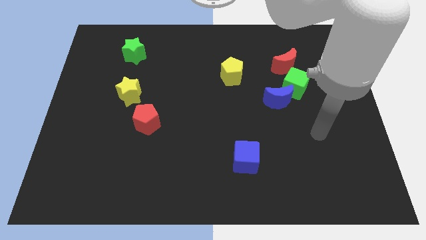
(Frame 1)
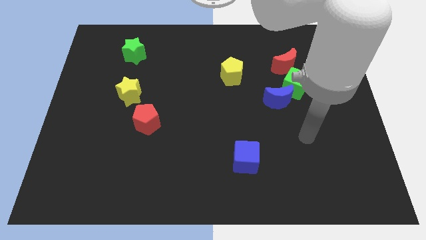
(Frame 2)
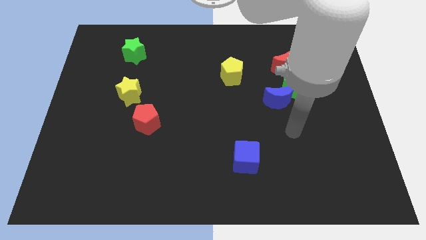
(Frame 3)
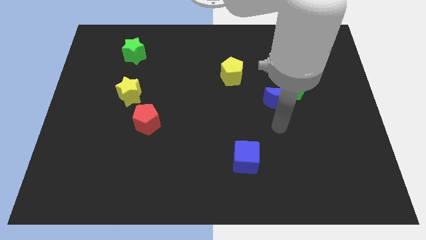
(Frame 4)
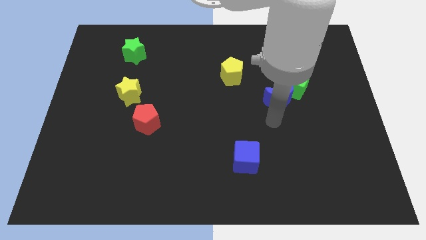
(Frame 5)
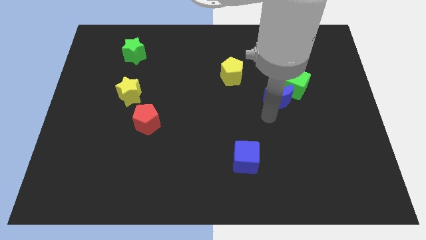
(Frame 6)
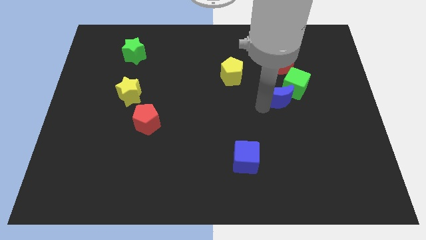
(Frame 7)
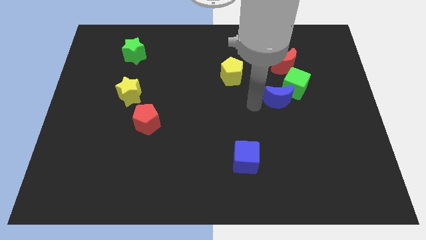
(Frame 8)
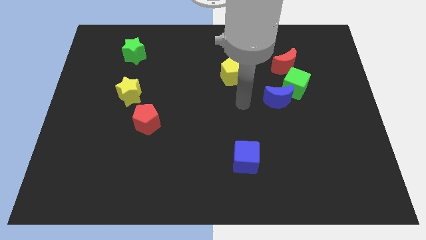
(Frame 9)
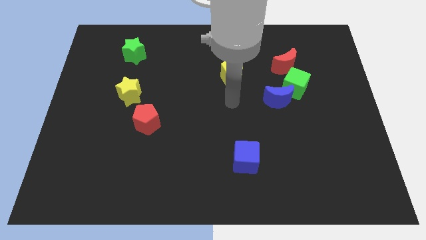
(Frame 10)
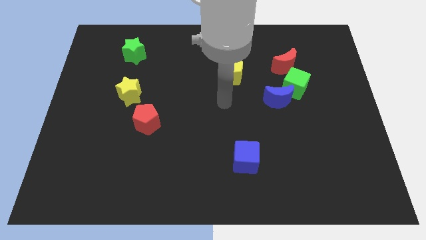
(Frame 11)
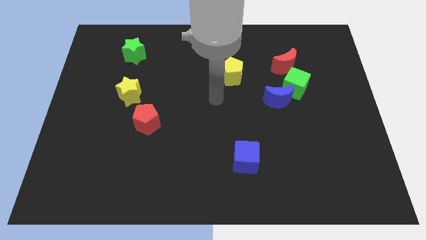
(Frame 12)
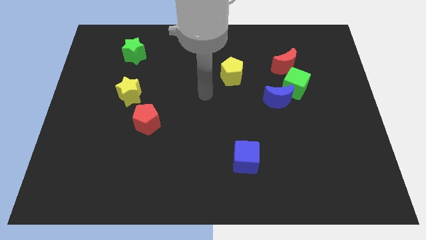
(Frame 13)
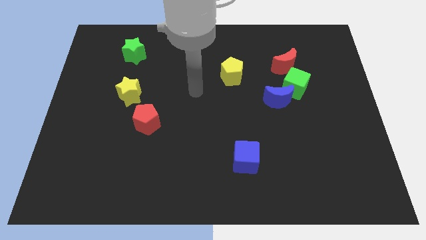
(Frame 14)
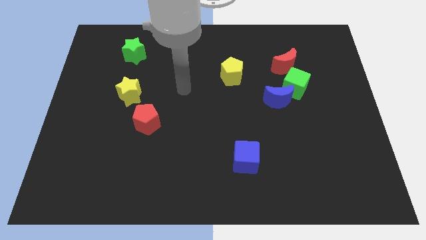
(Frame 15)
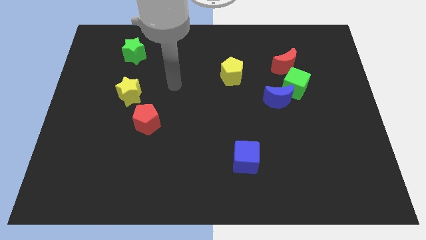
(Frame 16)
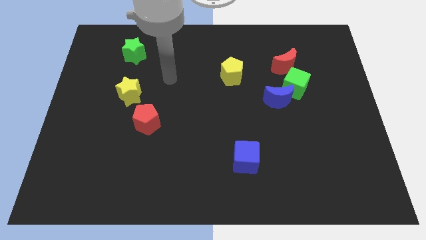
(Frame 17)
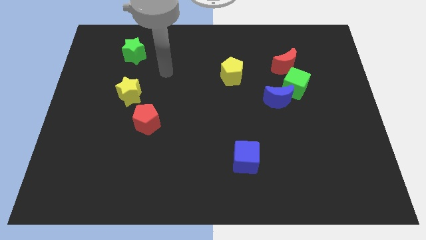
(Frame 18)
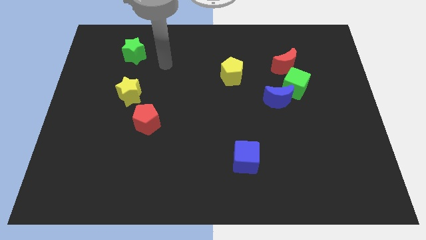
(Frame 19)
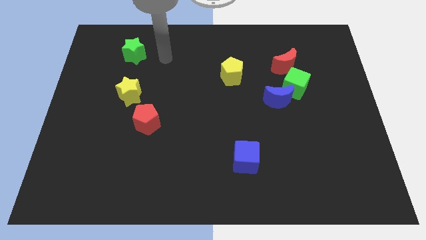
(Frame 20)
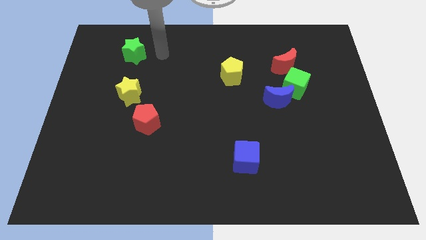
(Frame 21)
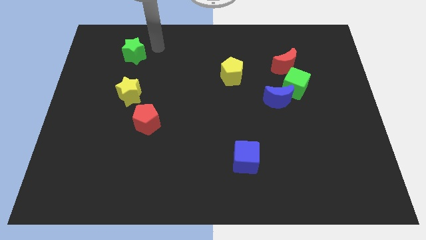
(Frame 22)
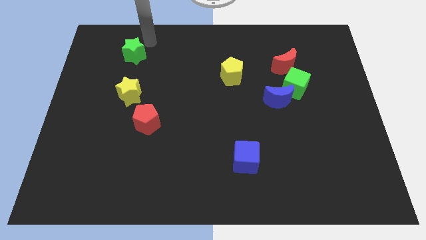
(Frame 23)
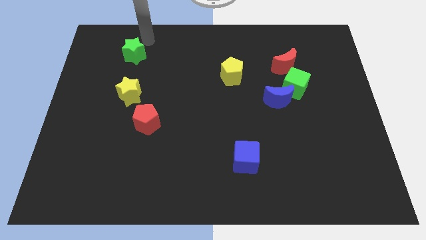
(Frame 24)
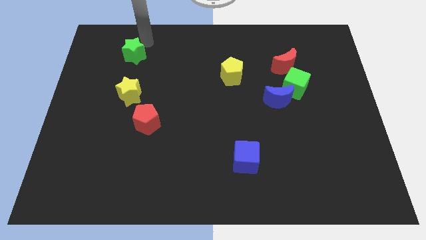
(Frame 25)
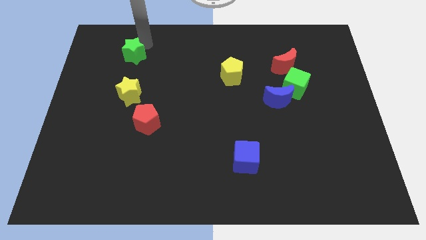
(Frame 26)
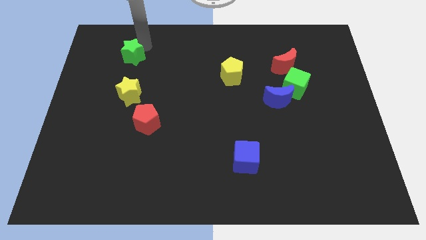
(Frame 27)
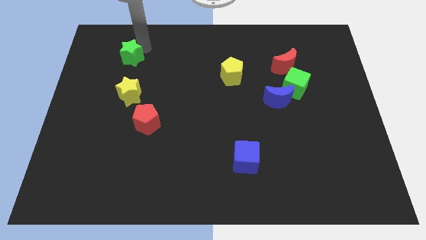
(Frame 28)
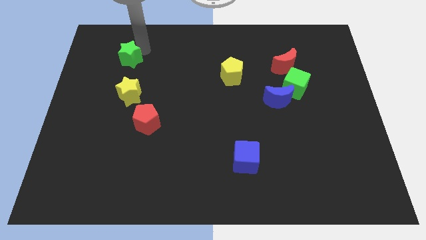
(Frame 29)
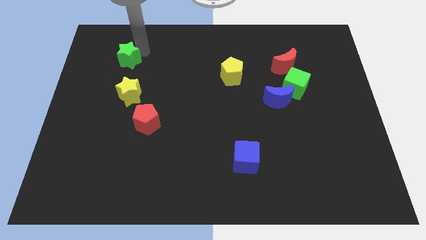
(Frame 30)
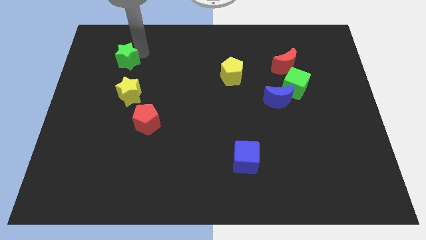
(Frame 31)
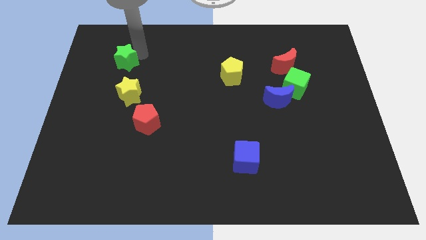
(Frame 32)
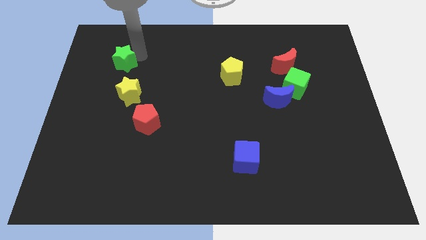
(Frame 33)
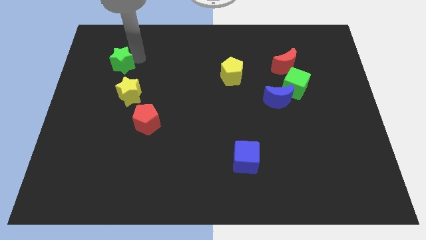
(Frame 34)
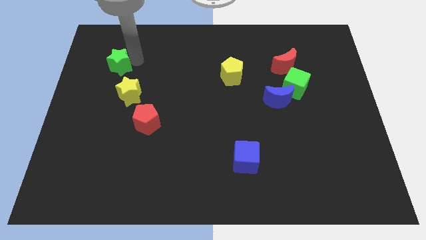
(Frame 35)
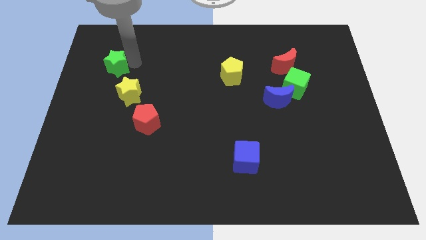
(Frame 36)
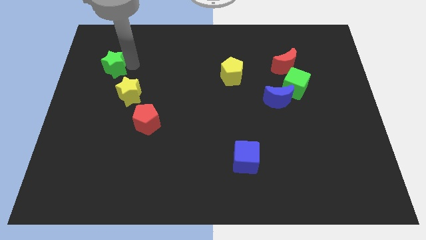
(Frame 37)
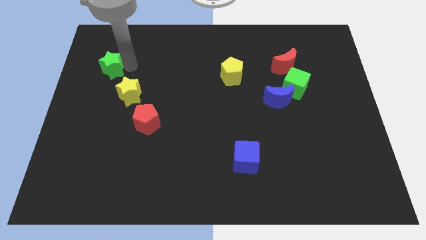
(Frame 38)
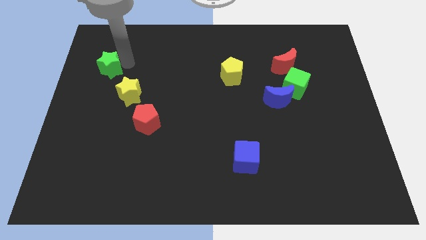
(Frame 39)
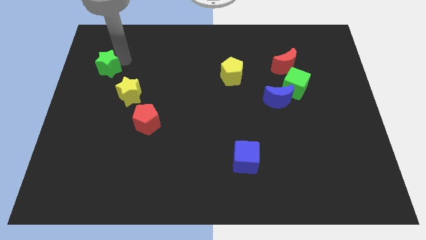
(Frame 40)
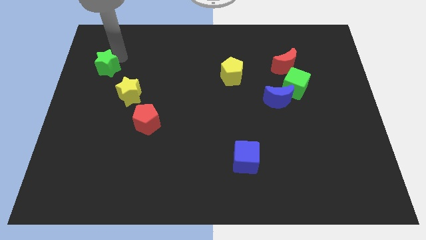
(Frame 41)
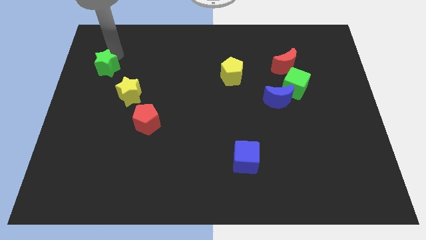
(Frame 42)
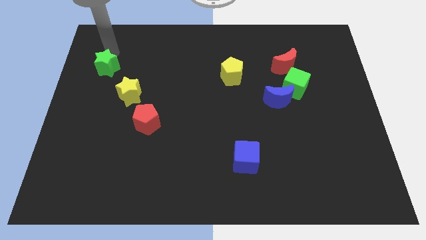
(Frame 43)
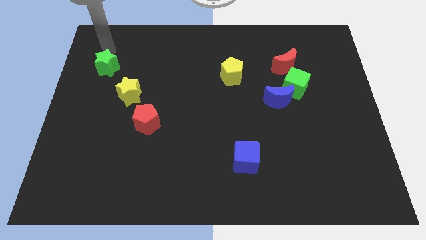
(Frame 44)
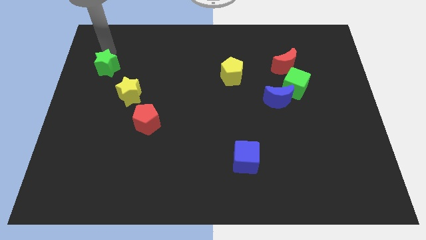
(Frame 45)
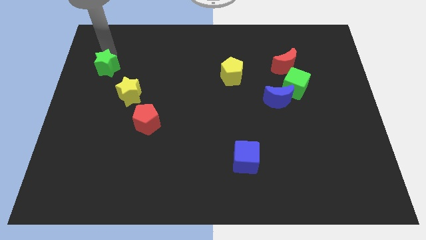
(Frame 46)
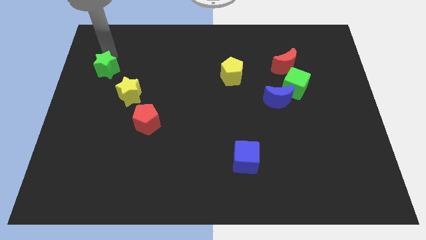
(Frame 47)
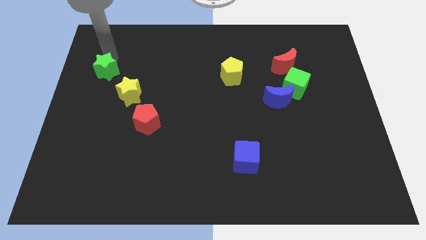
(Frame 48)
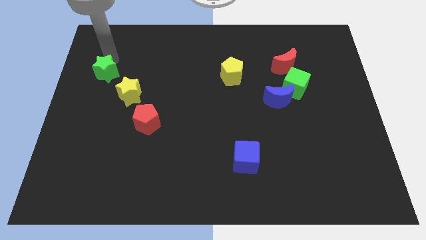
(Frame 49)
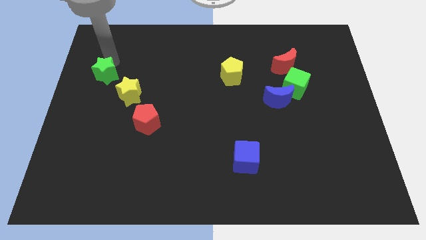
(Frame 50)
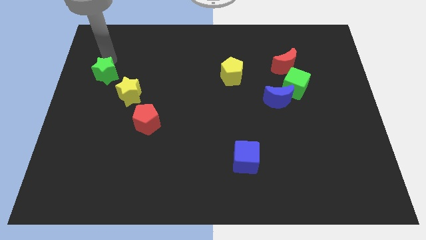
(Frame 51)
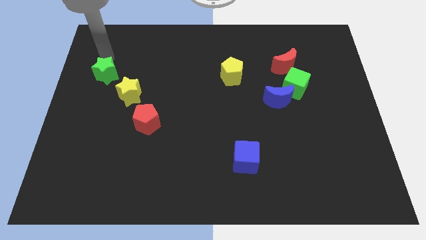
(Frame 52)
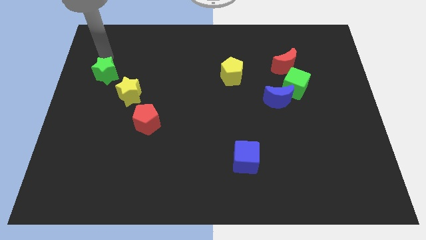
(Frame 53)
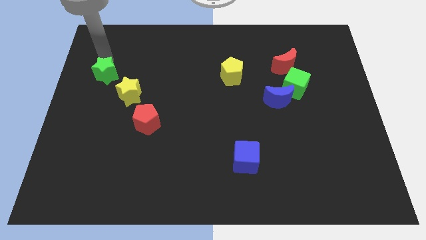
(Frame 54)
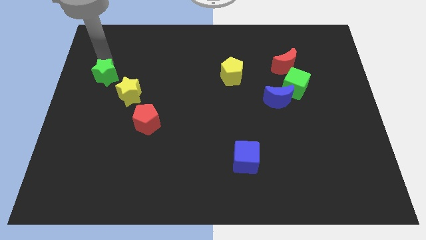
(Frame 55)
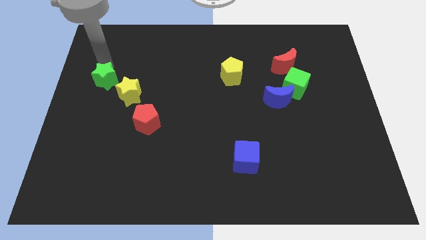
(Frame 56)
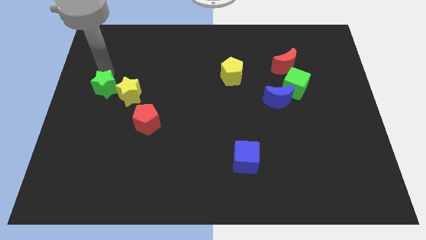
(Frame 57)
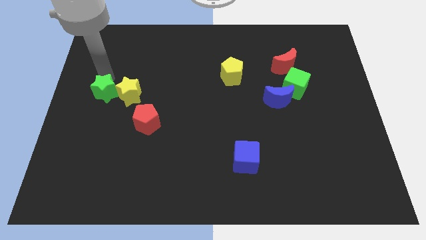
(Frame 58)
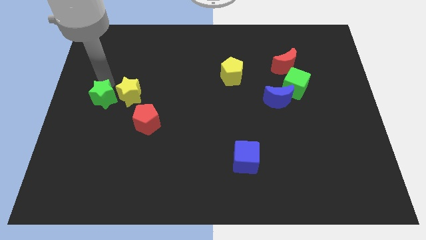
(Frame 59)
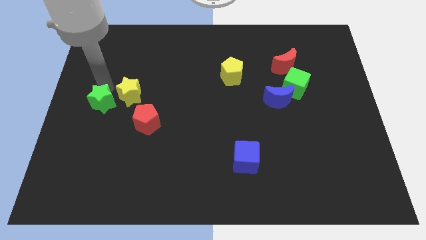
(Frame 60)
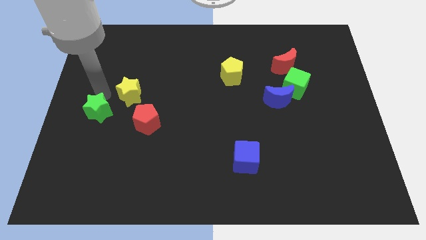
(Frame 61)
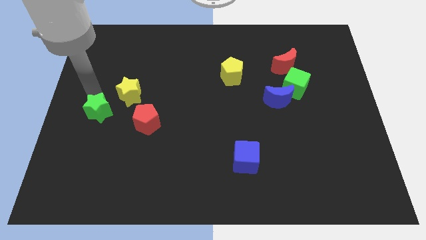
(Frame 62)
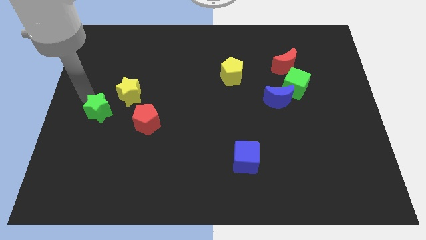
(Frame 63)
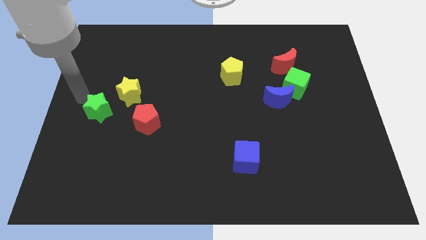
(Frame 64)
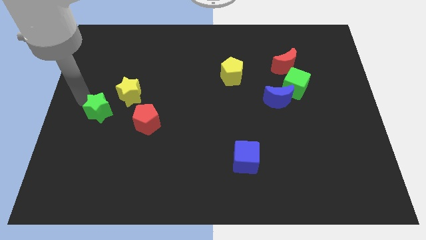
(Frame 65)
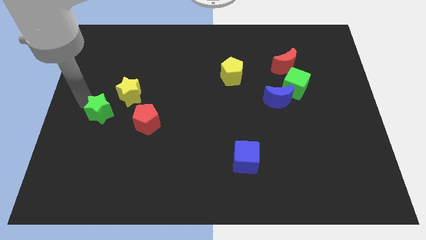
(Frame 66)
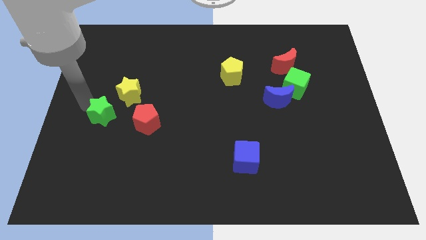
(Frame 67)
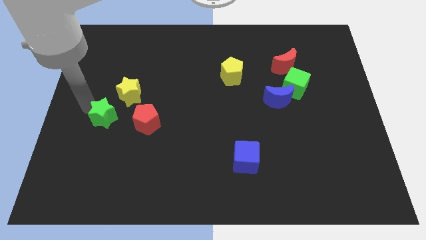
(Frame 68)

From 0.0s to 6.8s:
slide the green star to the bottom side of the yellow star
